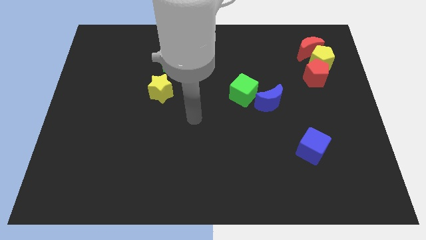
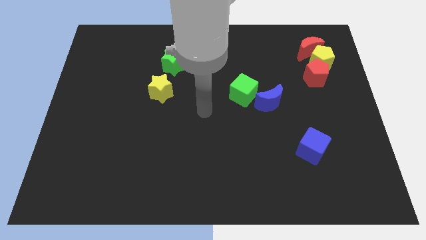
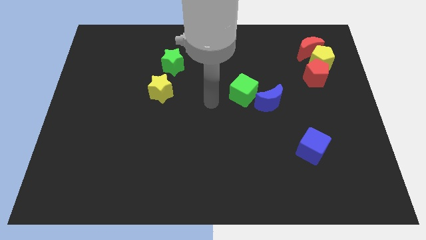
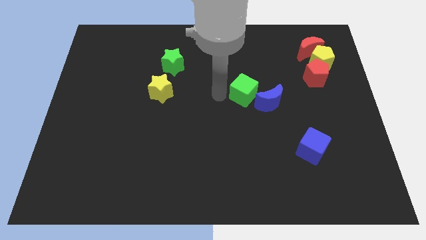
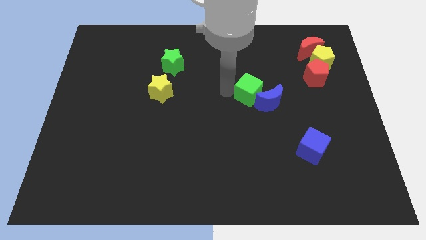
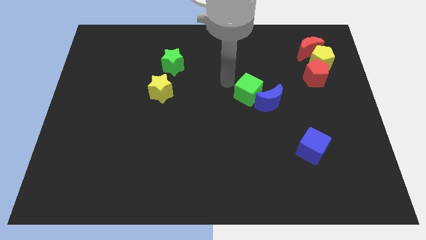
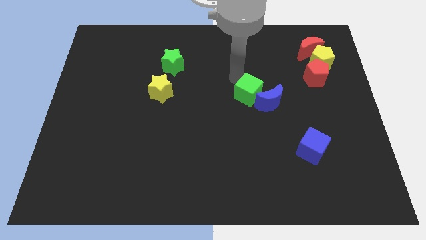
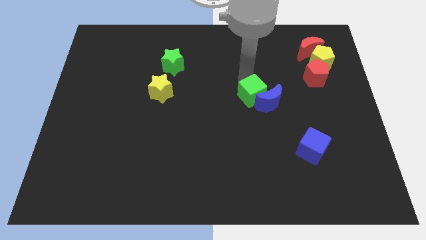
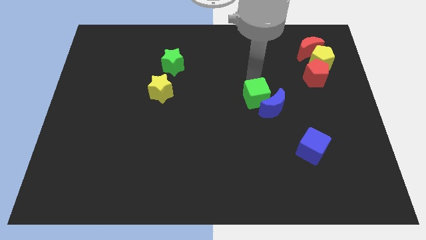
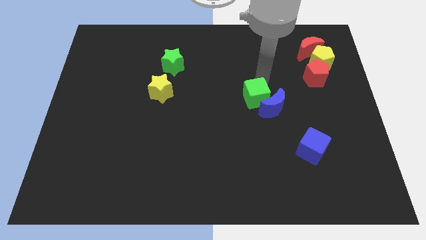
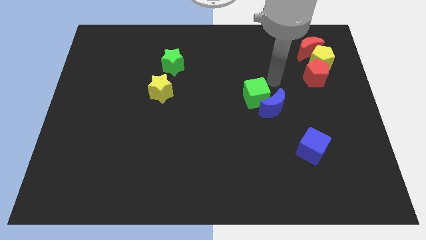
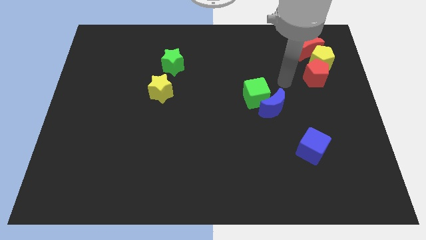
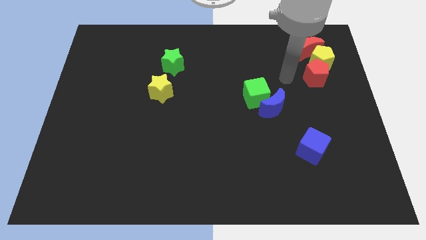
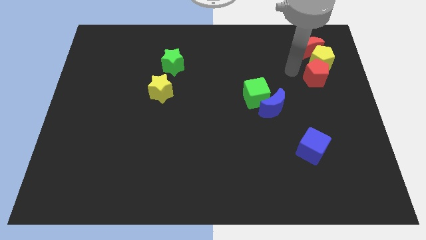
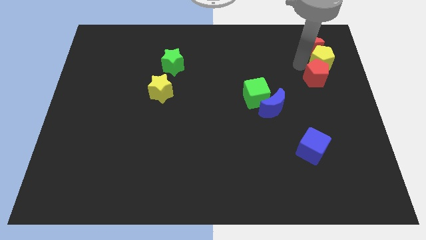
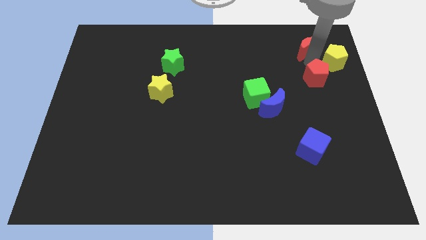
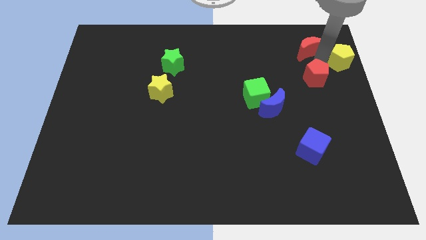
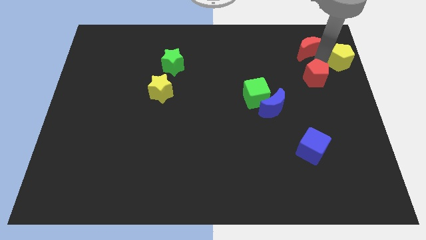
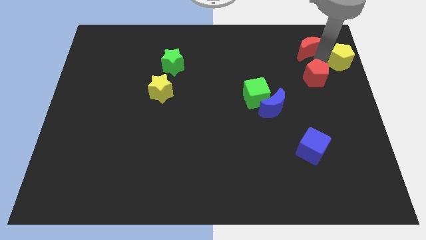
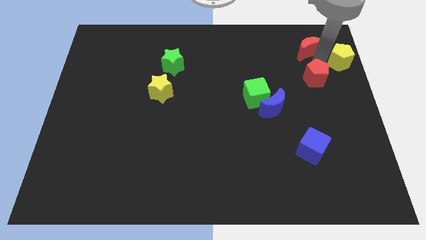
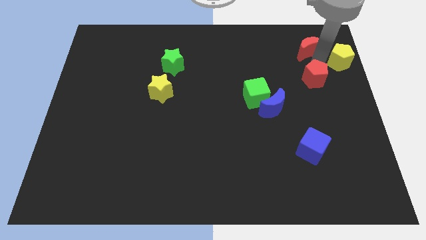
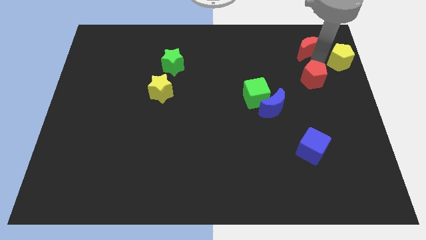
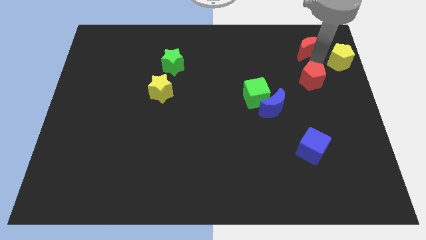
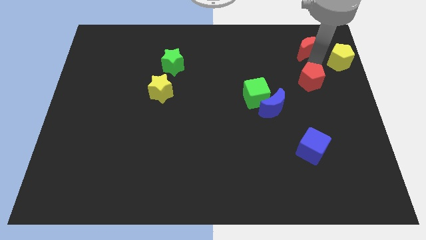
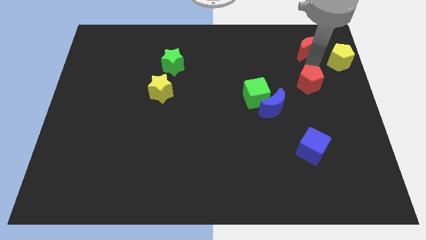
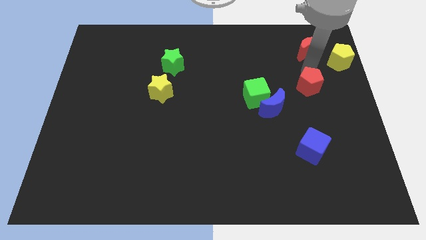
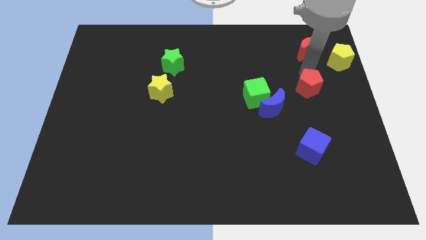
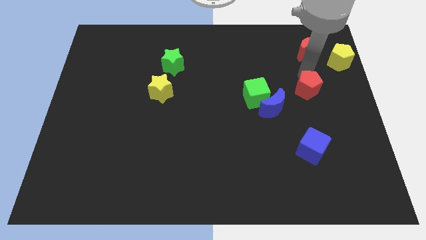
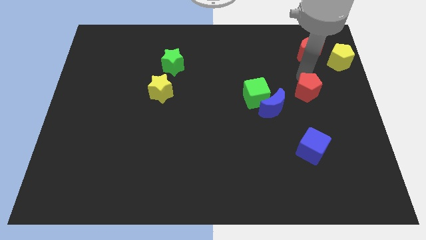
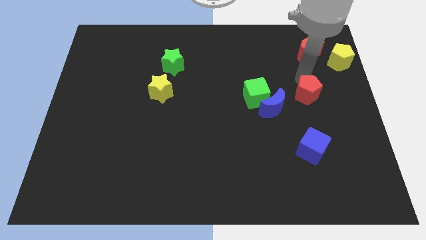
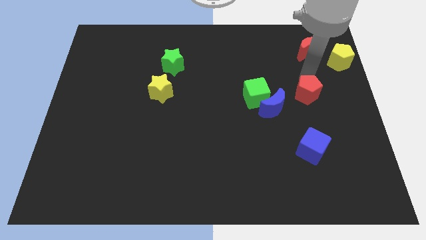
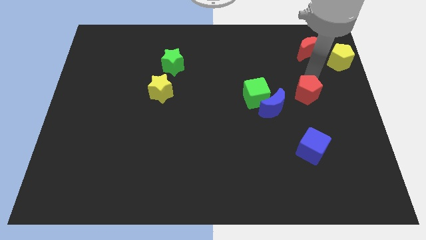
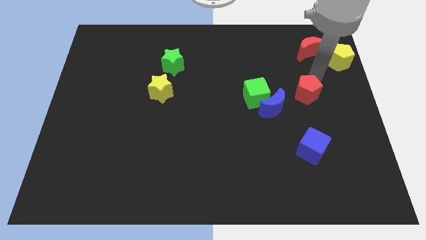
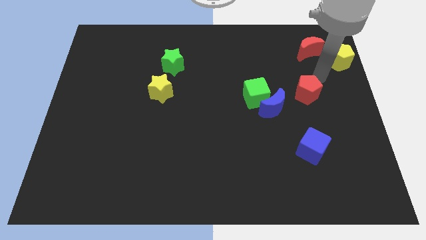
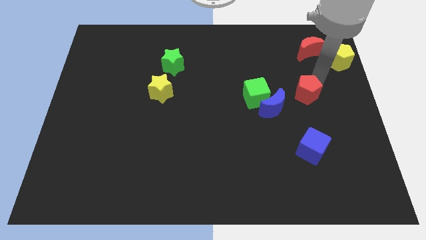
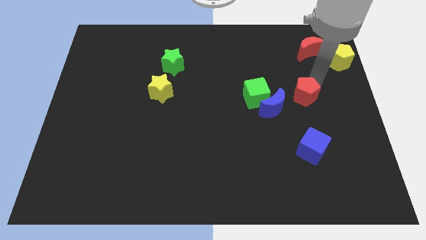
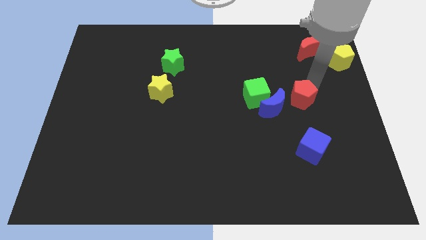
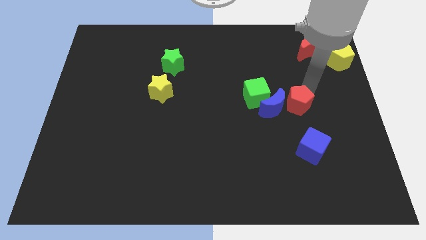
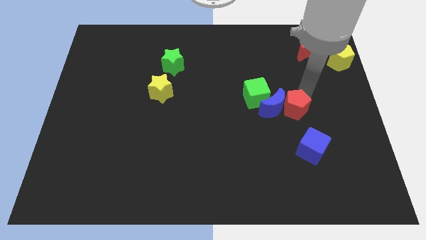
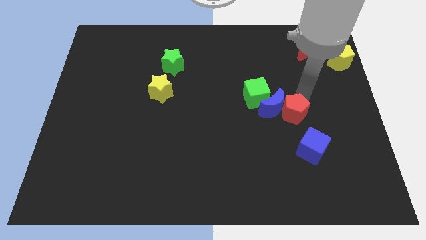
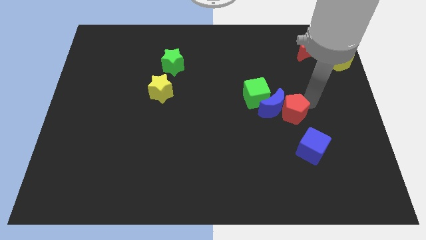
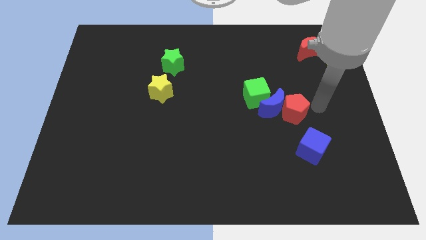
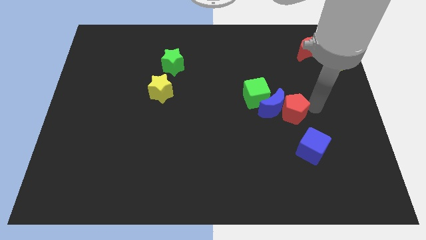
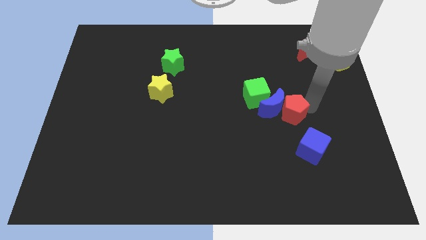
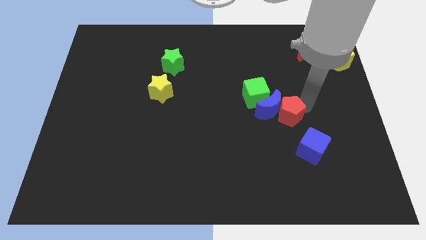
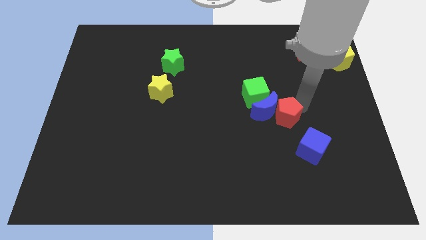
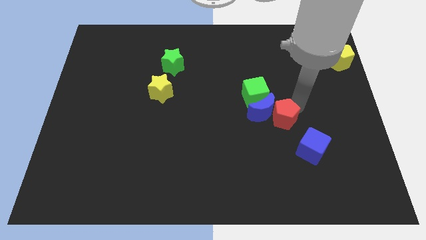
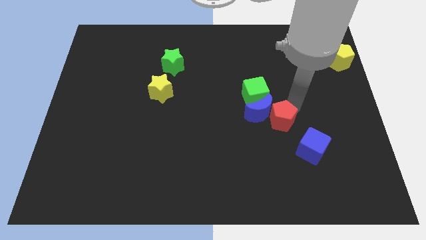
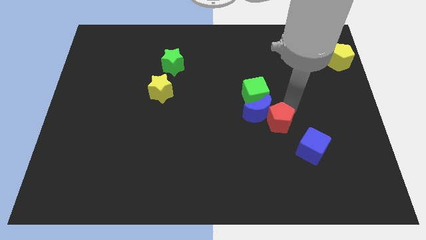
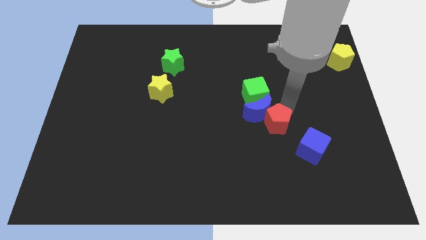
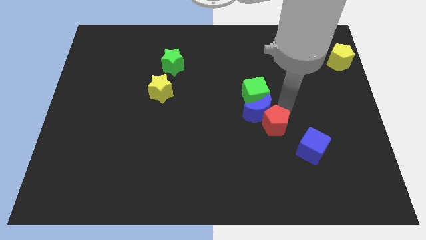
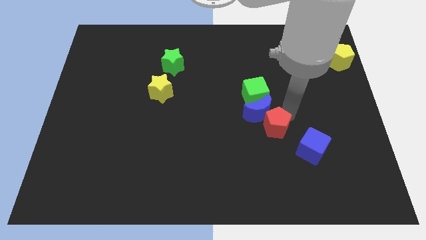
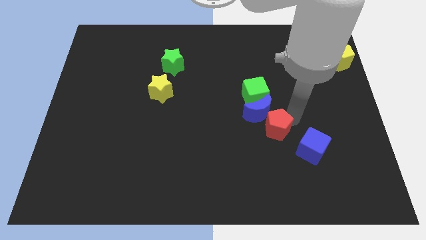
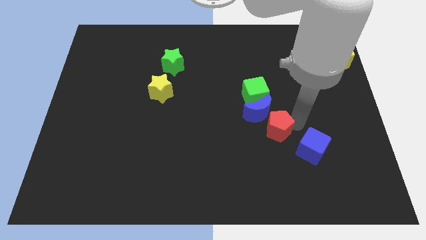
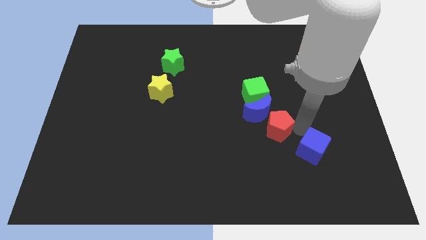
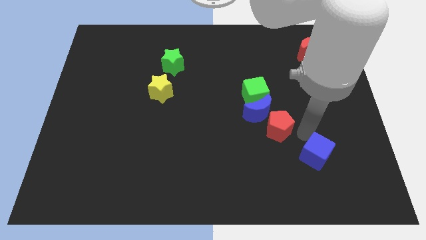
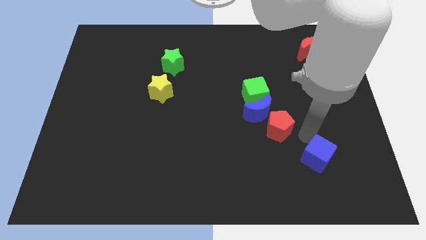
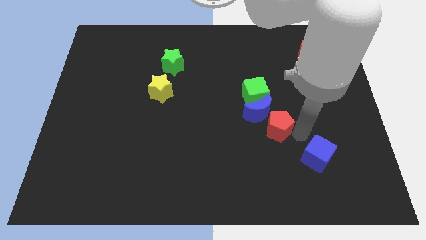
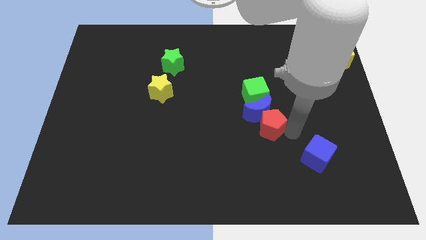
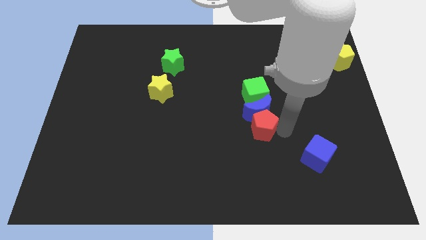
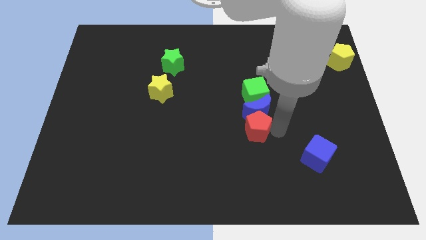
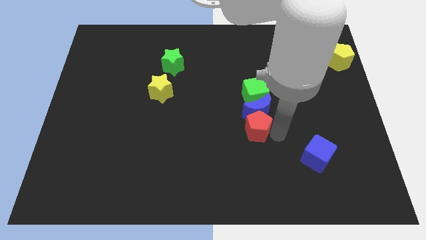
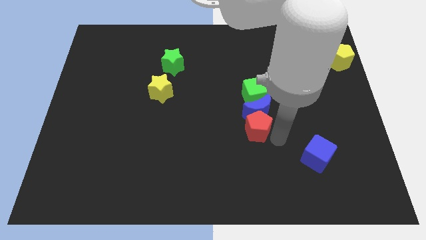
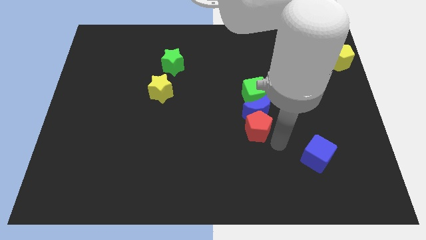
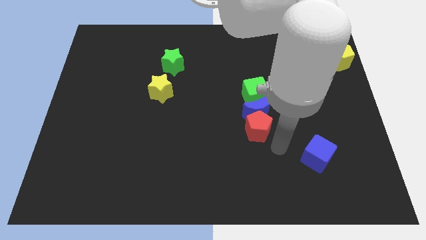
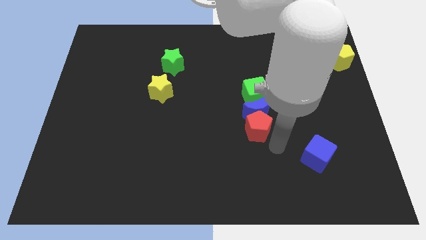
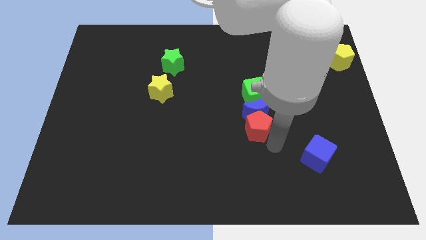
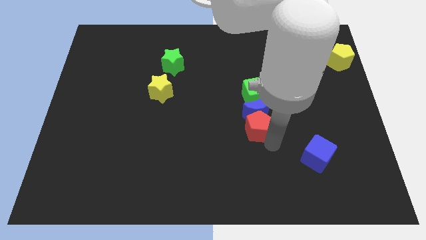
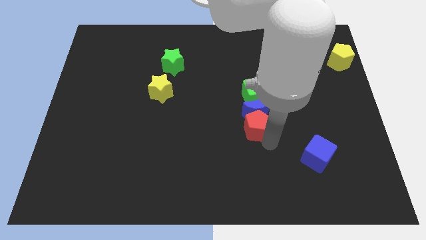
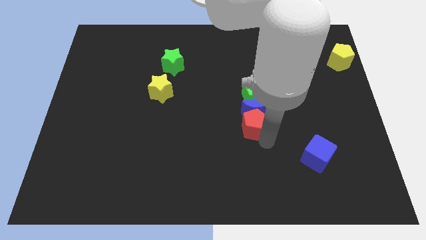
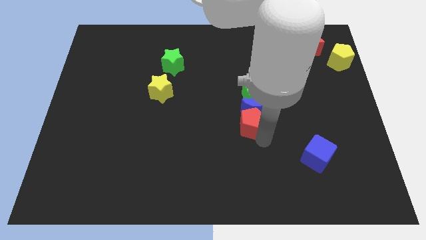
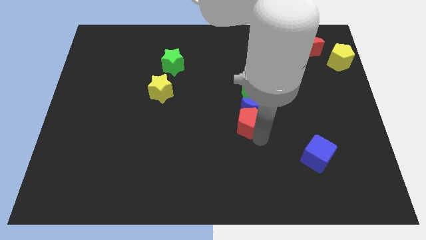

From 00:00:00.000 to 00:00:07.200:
put the red pentagon to the bottom left side of the green cube

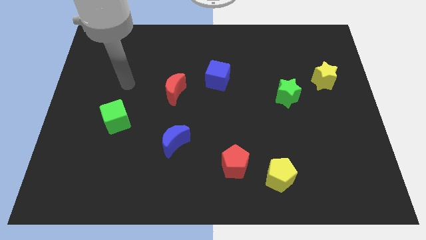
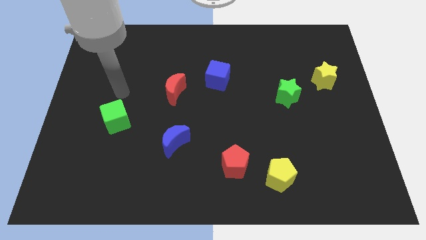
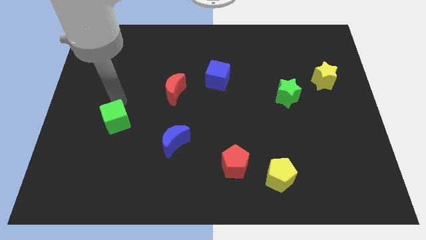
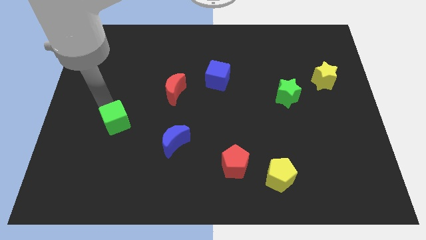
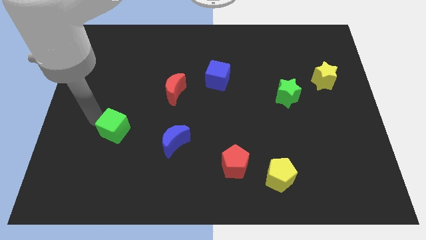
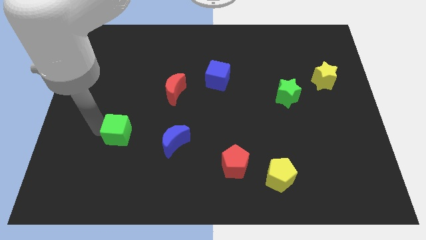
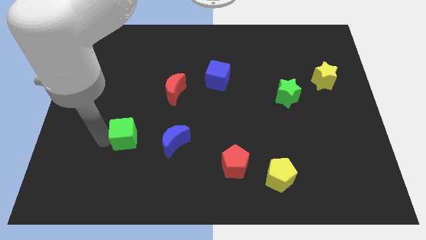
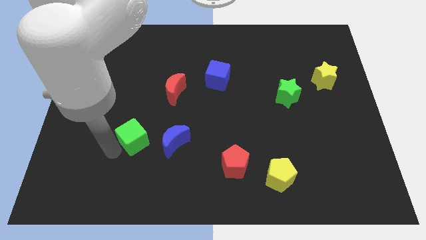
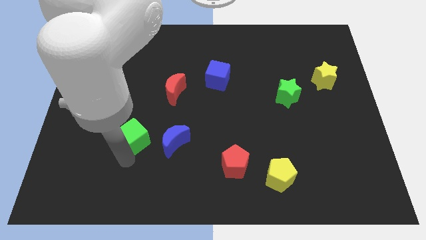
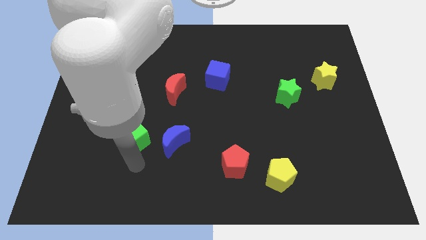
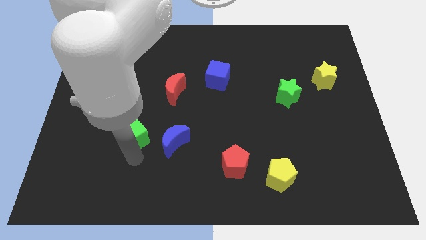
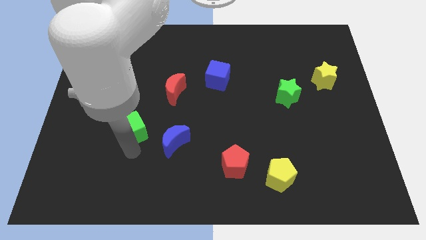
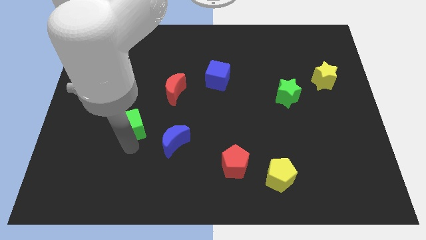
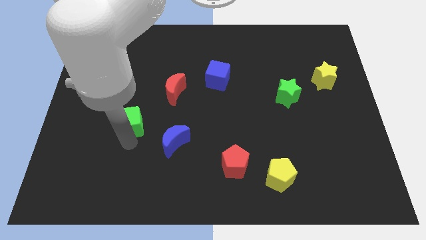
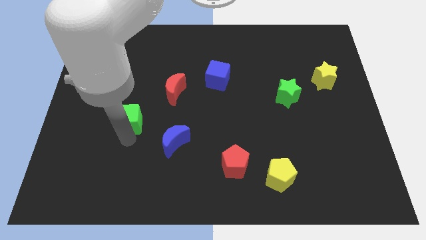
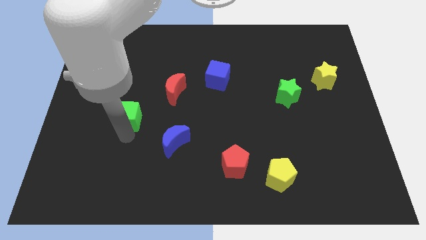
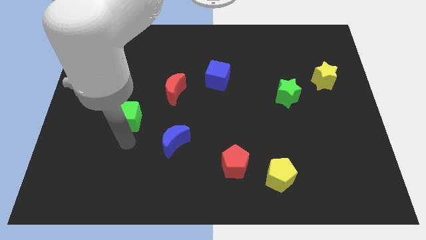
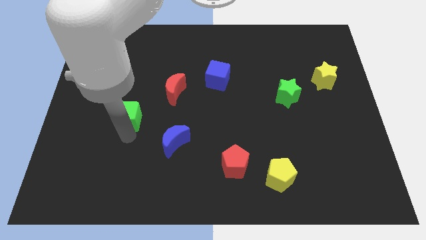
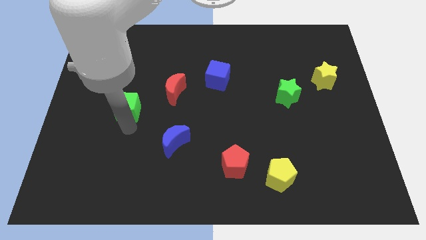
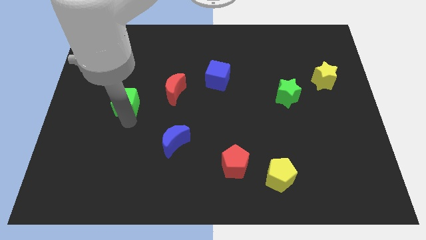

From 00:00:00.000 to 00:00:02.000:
put the green cube to the left side of the red moon
